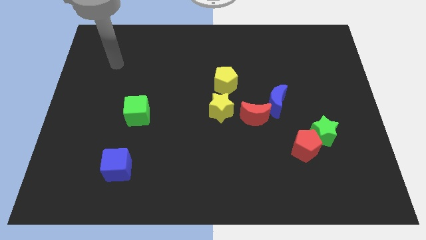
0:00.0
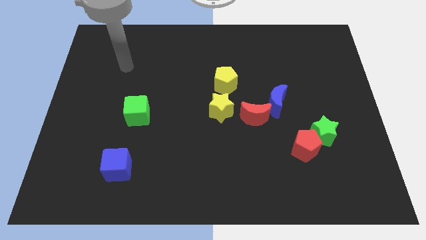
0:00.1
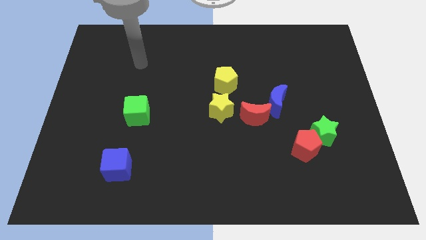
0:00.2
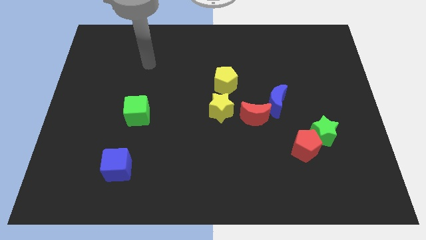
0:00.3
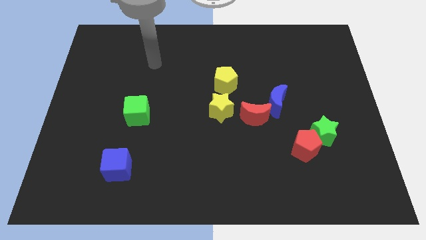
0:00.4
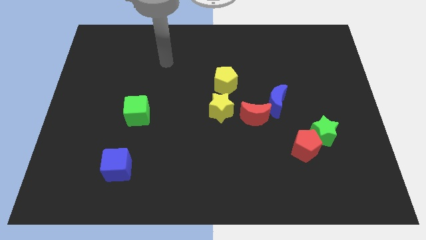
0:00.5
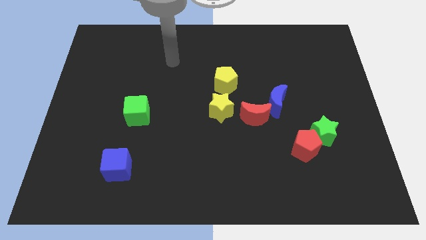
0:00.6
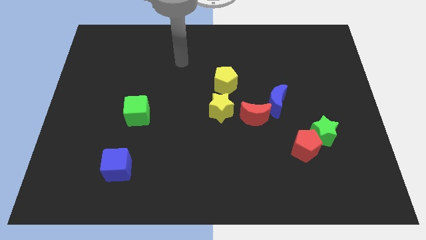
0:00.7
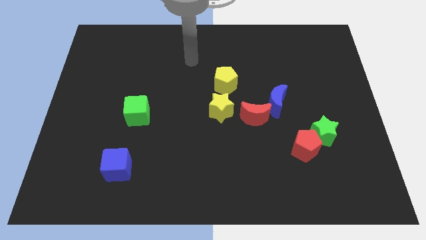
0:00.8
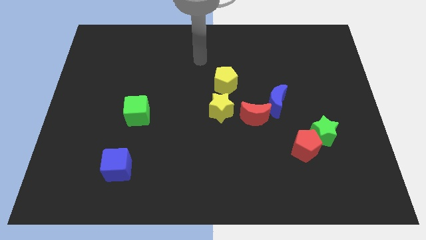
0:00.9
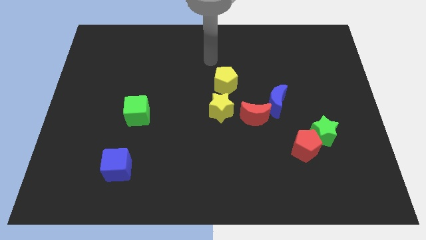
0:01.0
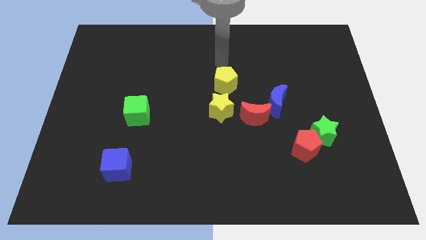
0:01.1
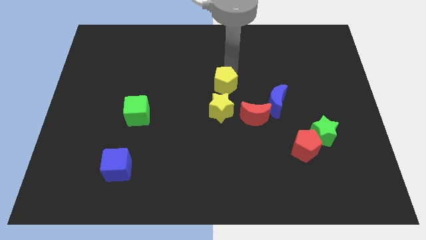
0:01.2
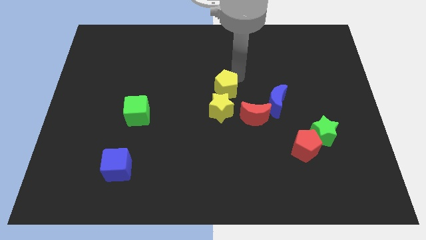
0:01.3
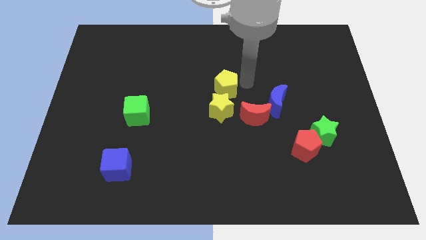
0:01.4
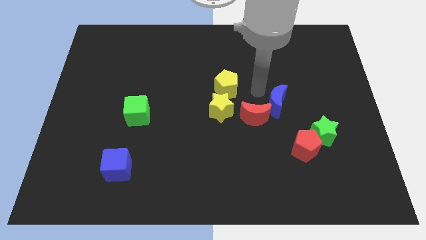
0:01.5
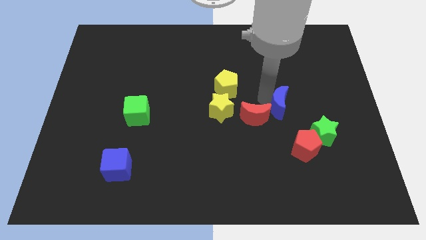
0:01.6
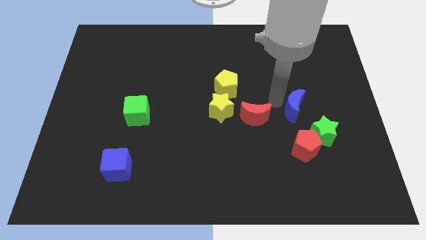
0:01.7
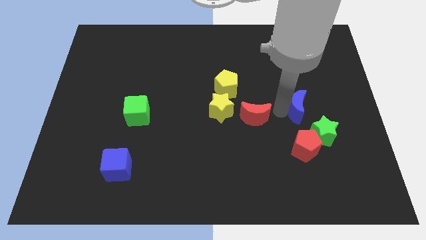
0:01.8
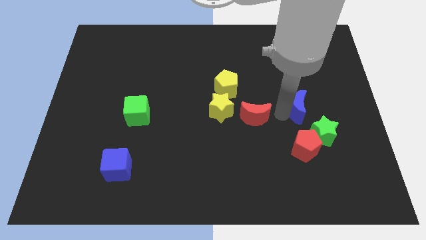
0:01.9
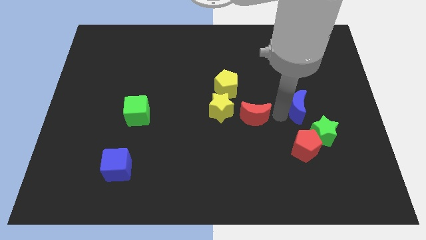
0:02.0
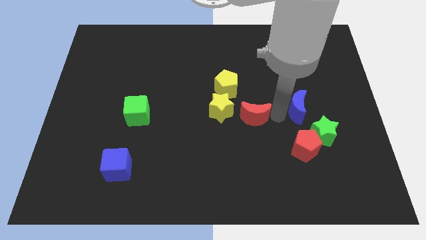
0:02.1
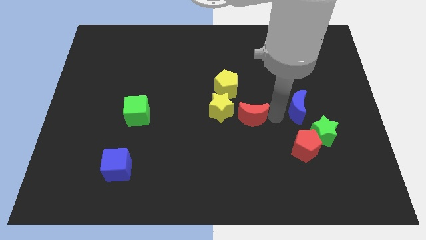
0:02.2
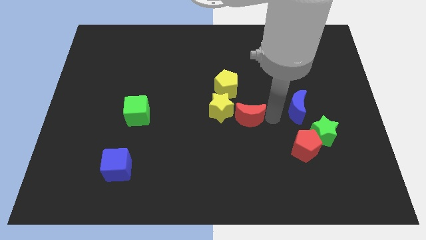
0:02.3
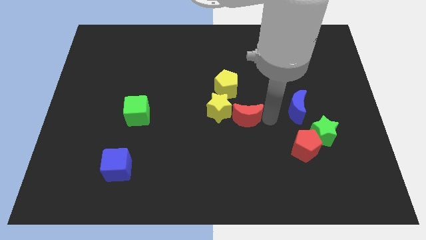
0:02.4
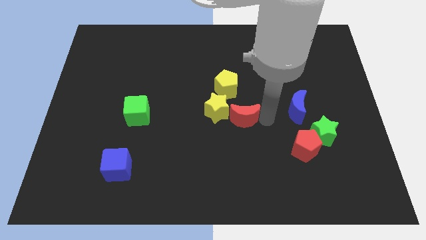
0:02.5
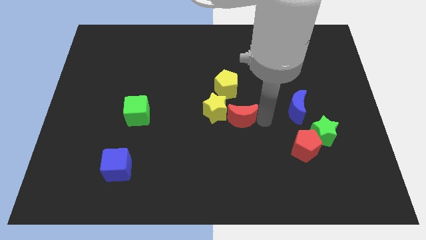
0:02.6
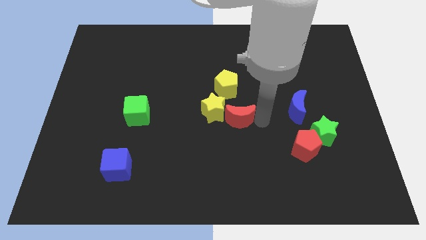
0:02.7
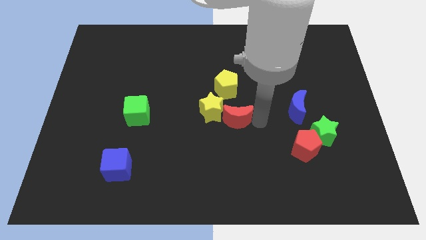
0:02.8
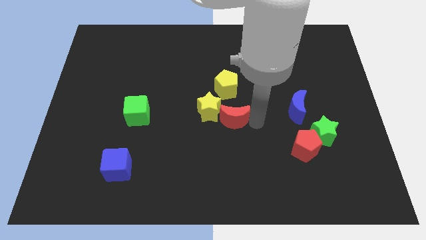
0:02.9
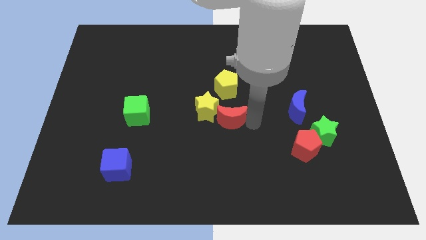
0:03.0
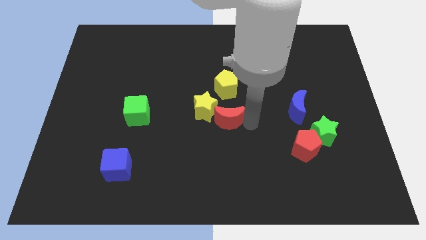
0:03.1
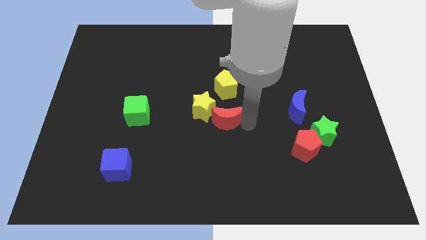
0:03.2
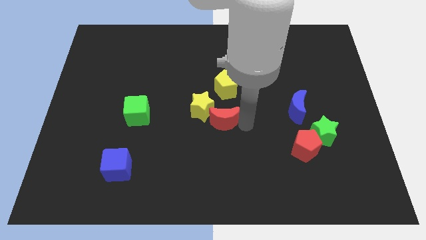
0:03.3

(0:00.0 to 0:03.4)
slide the red moon to the left a little bit

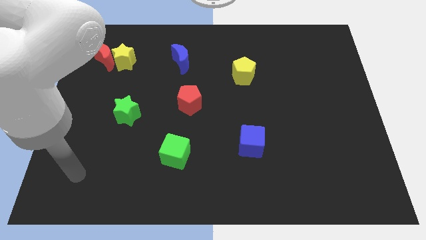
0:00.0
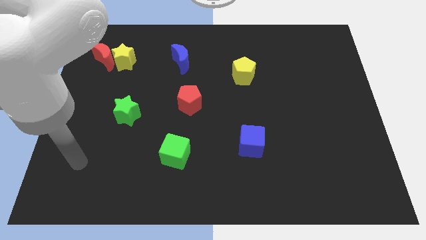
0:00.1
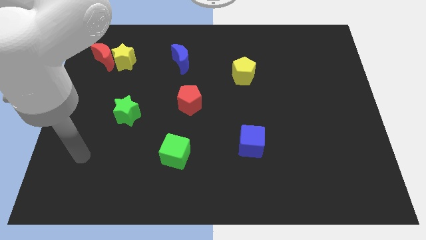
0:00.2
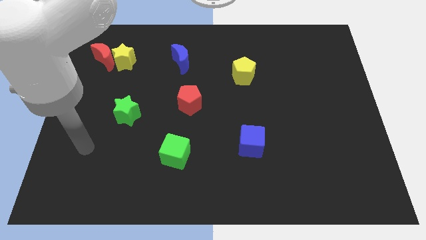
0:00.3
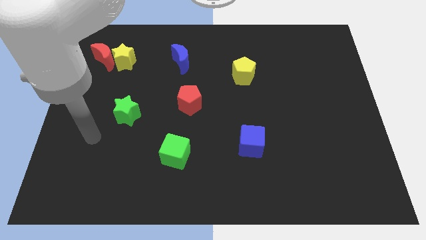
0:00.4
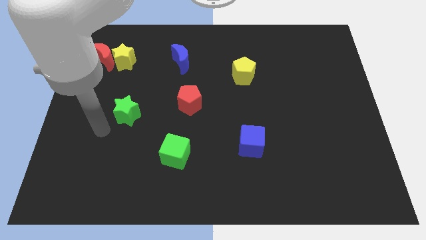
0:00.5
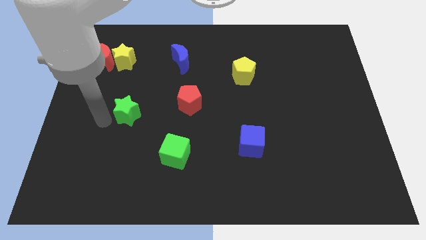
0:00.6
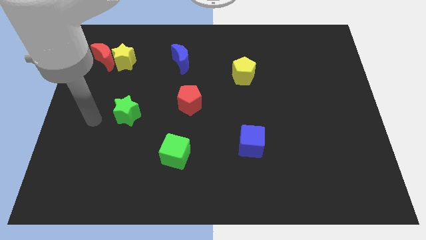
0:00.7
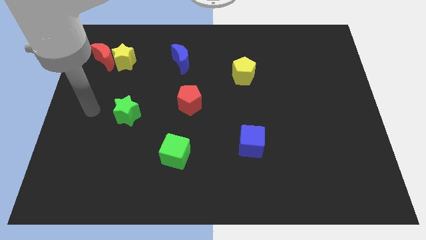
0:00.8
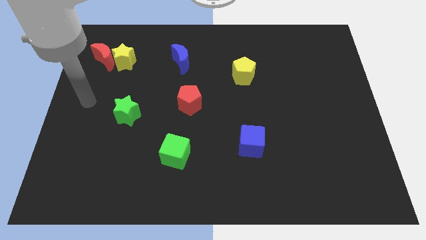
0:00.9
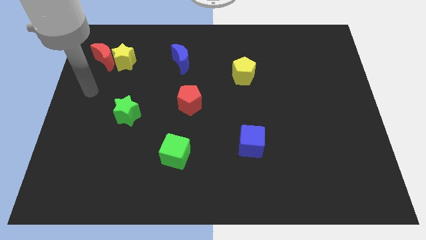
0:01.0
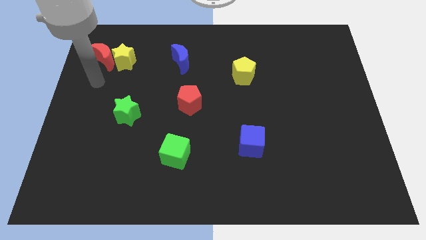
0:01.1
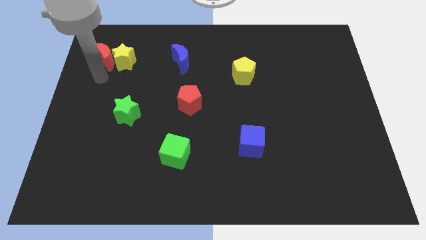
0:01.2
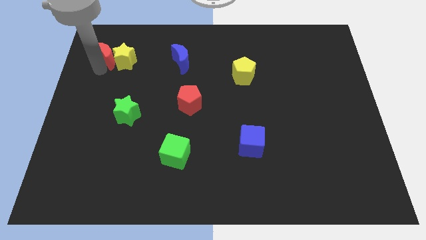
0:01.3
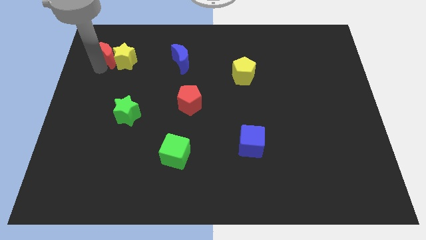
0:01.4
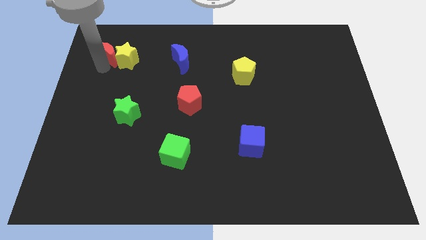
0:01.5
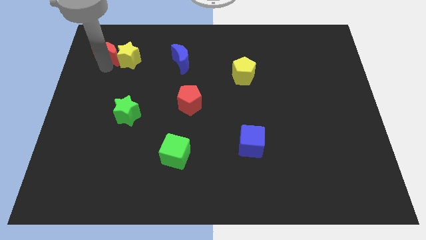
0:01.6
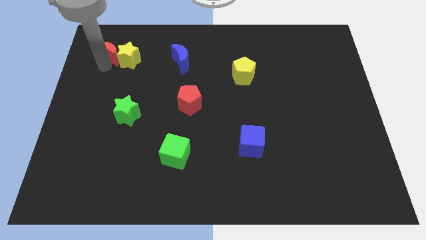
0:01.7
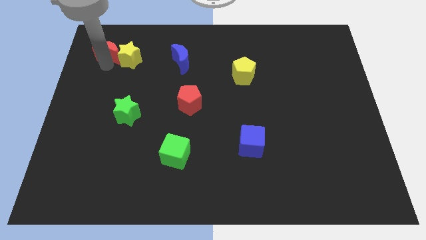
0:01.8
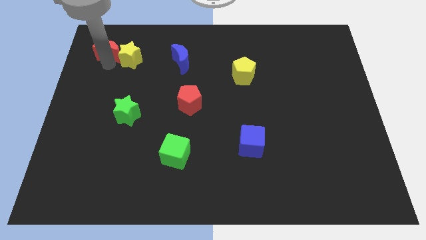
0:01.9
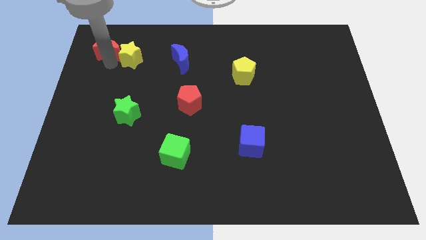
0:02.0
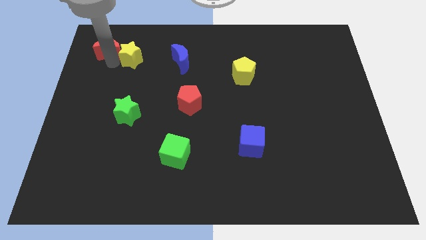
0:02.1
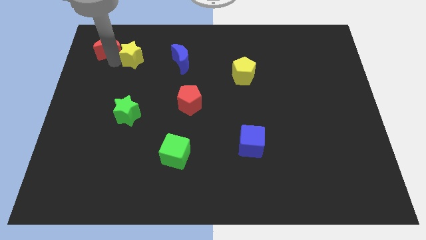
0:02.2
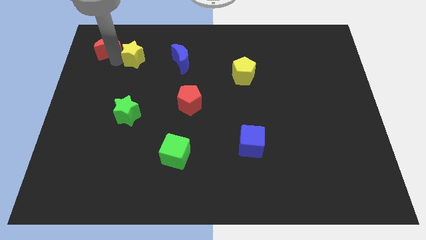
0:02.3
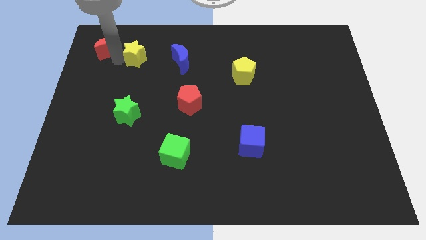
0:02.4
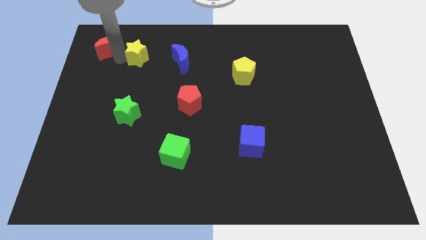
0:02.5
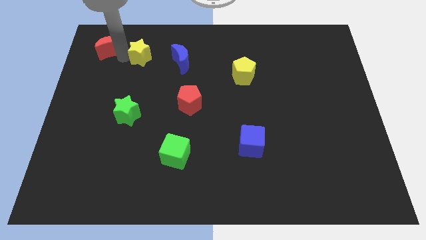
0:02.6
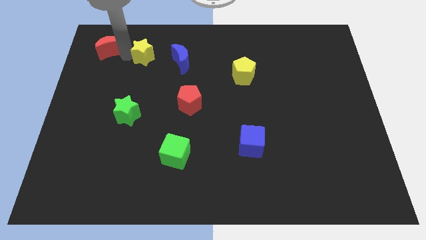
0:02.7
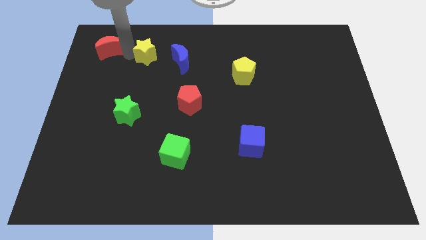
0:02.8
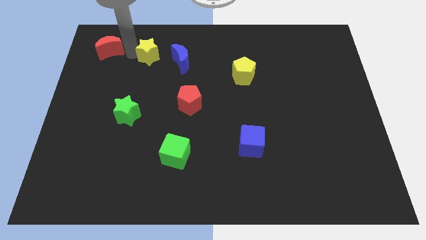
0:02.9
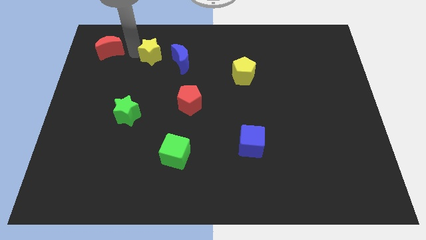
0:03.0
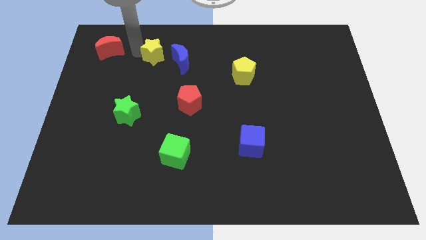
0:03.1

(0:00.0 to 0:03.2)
slightly push the yellow star to the right

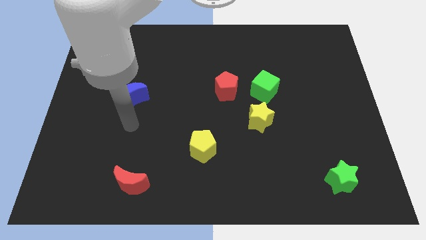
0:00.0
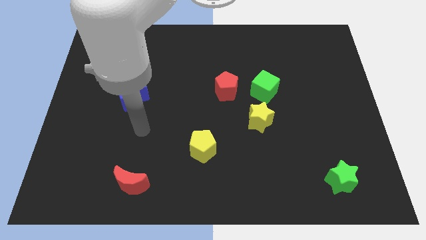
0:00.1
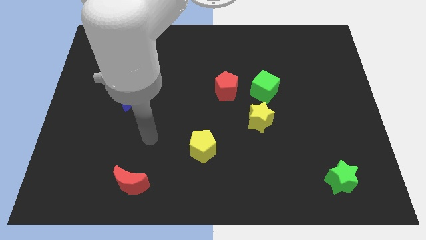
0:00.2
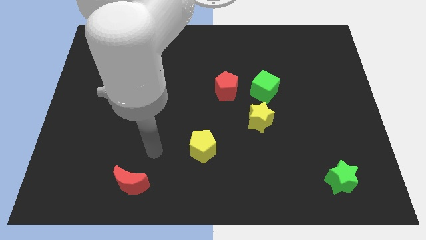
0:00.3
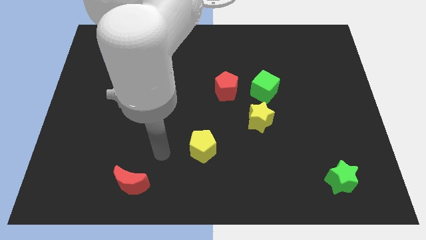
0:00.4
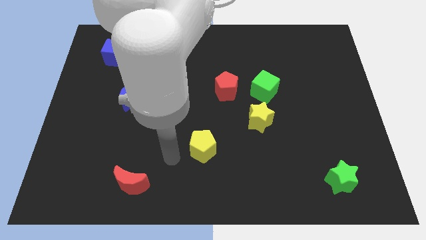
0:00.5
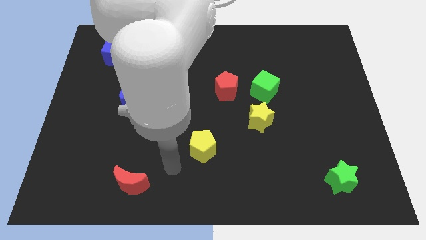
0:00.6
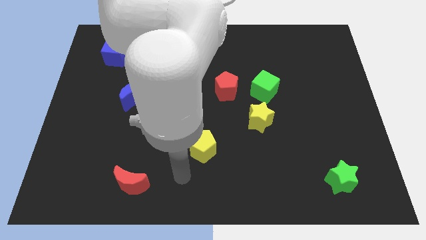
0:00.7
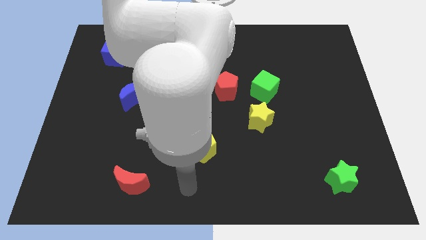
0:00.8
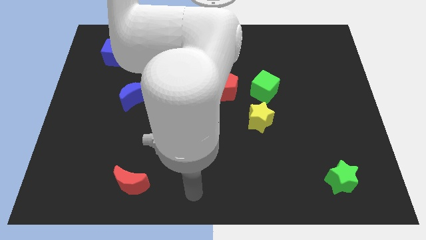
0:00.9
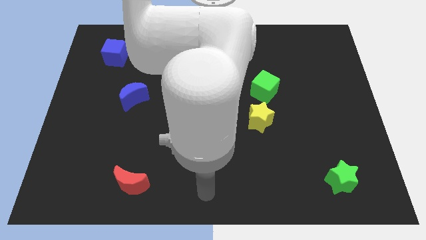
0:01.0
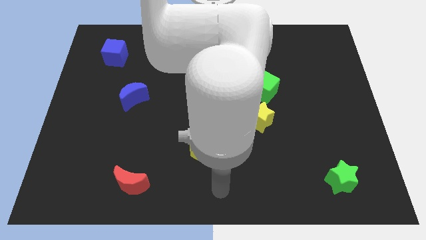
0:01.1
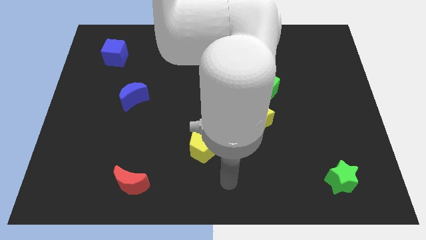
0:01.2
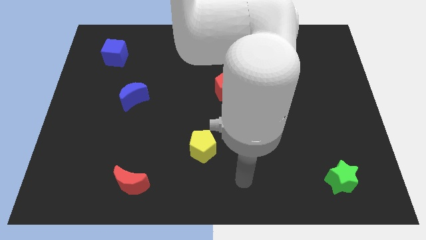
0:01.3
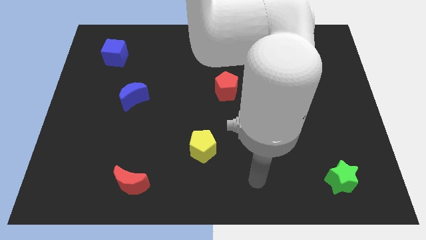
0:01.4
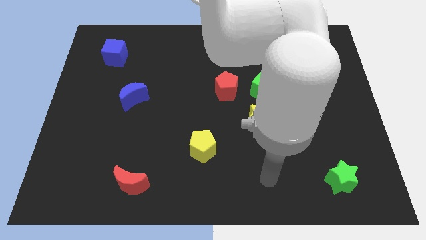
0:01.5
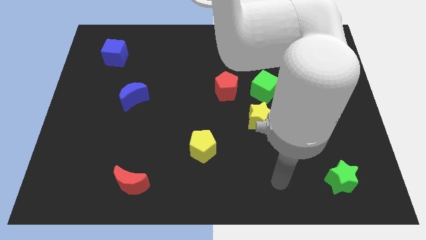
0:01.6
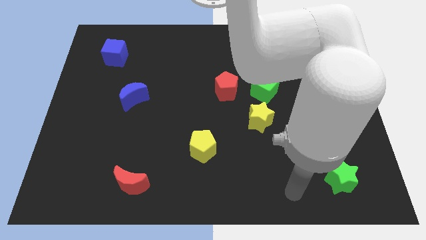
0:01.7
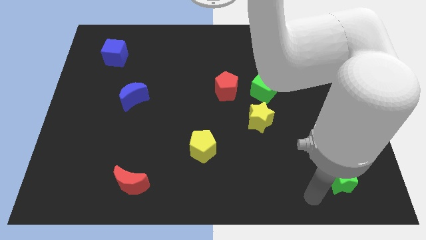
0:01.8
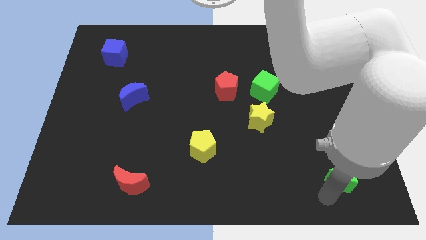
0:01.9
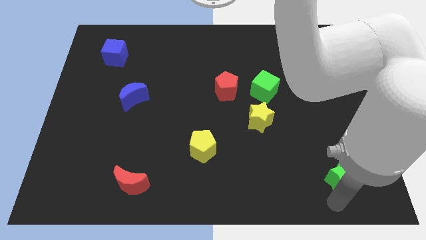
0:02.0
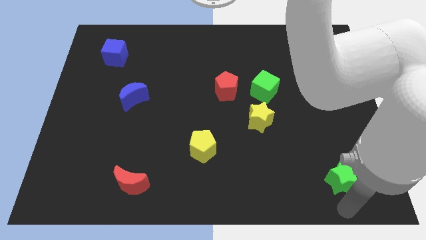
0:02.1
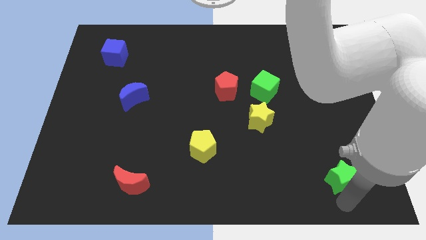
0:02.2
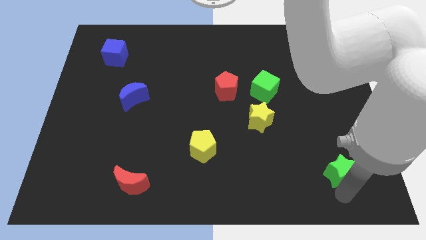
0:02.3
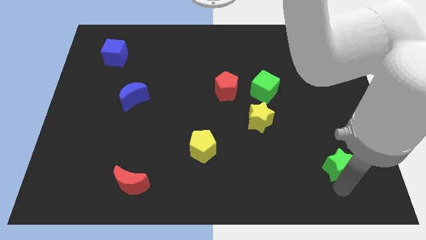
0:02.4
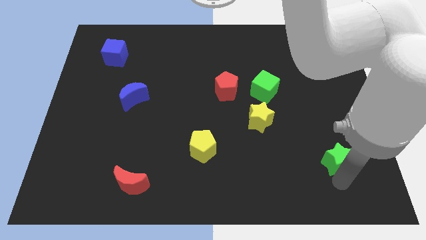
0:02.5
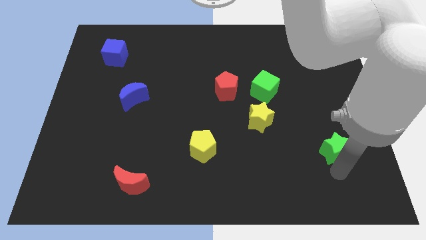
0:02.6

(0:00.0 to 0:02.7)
push the green star upwards a little bit
